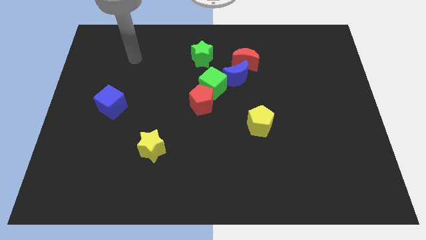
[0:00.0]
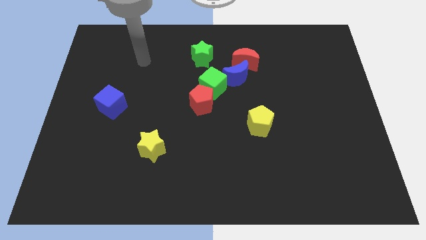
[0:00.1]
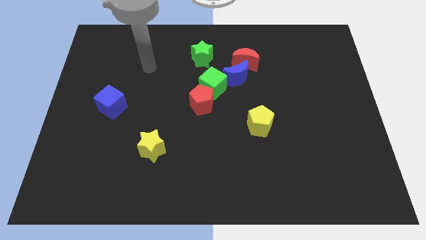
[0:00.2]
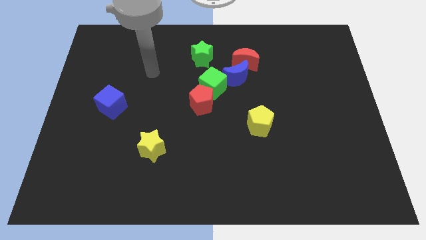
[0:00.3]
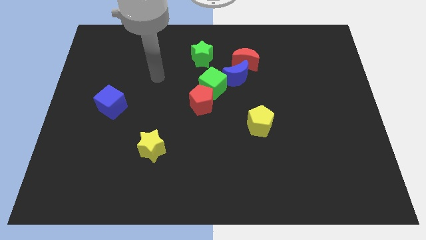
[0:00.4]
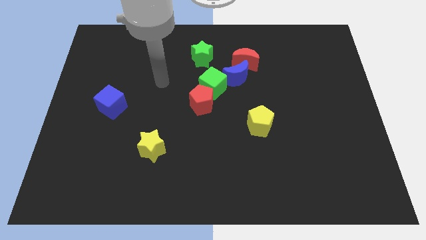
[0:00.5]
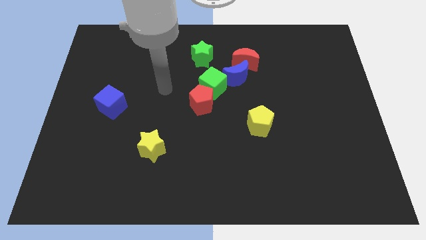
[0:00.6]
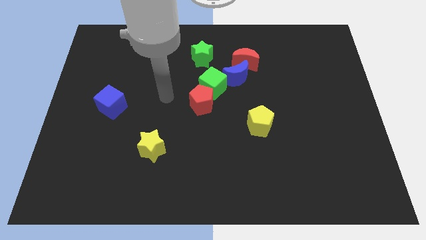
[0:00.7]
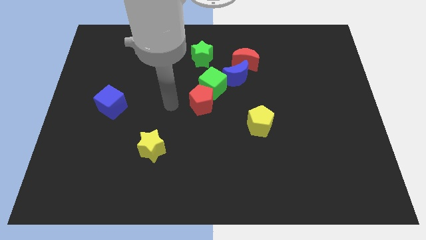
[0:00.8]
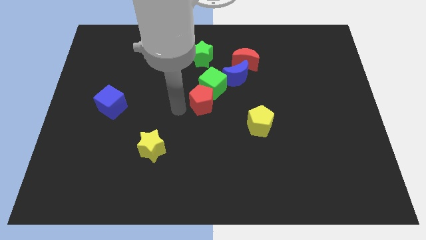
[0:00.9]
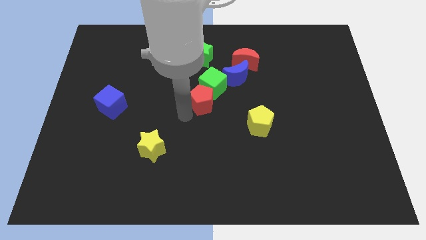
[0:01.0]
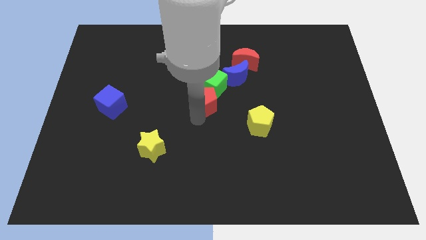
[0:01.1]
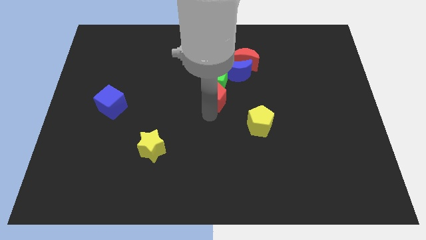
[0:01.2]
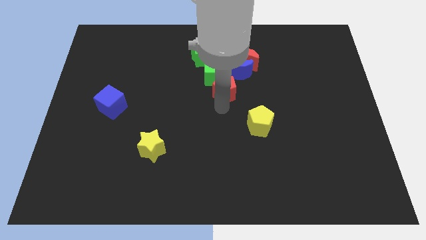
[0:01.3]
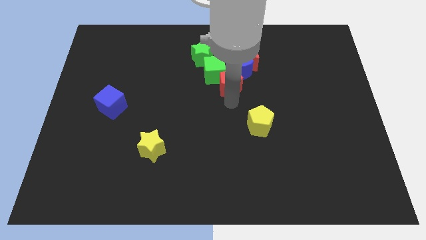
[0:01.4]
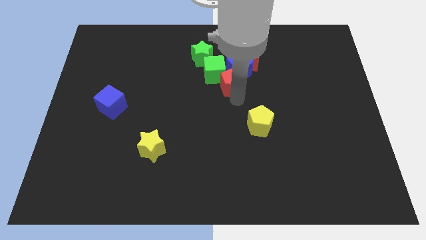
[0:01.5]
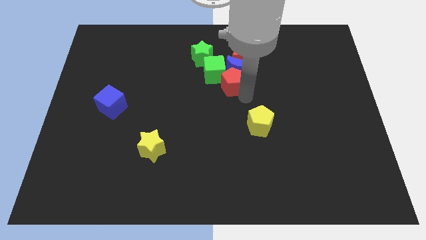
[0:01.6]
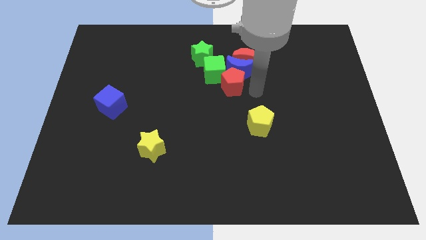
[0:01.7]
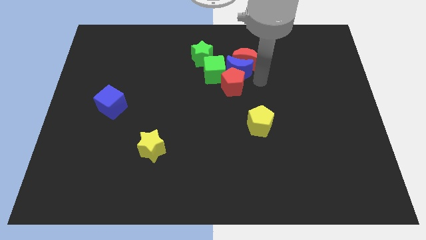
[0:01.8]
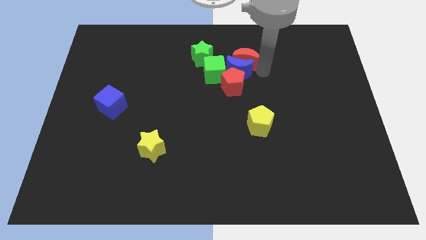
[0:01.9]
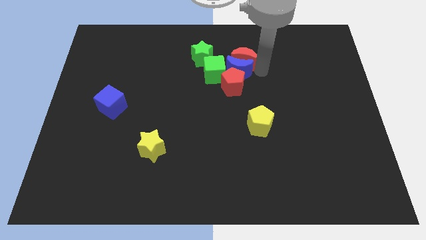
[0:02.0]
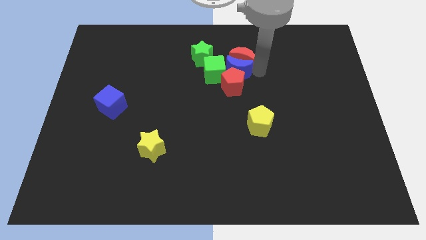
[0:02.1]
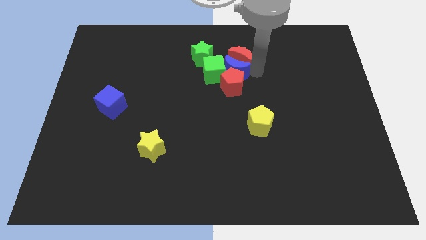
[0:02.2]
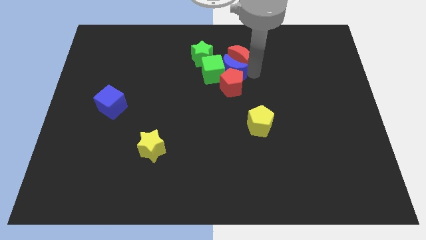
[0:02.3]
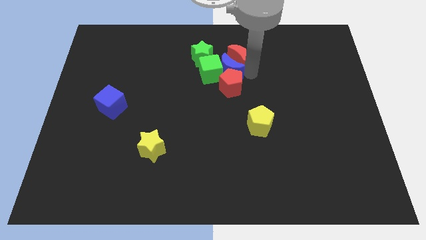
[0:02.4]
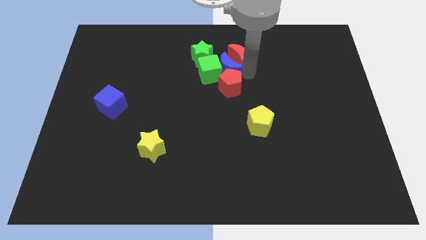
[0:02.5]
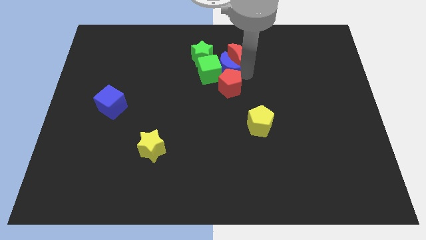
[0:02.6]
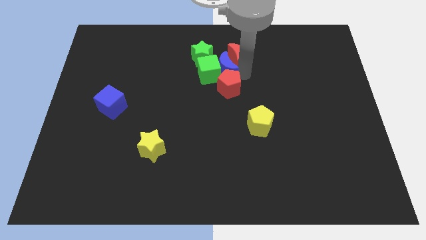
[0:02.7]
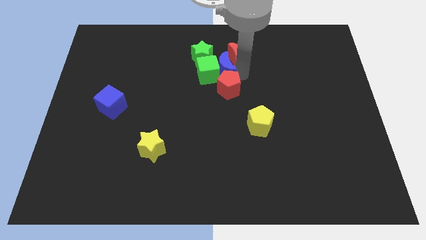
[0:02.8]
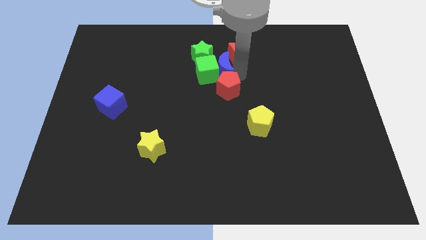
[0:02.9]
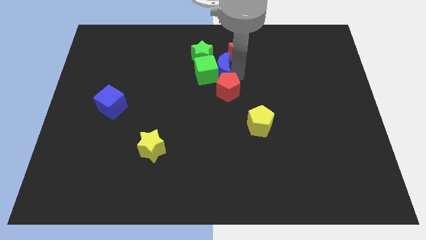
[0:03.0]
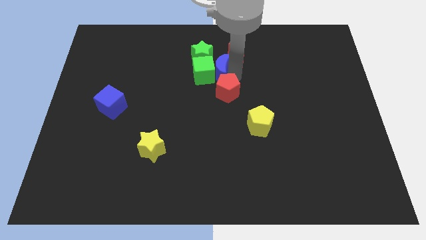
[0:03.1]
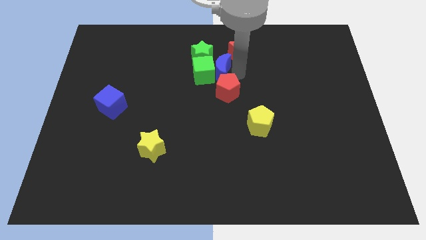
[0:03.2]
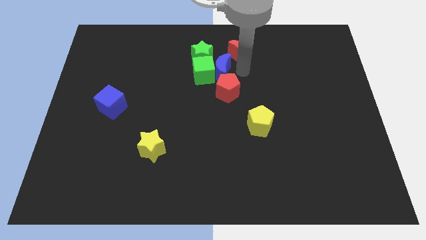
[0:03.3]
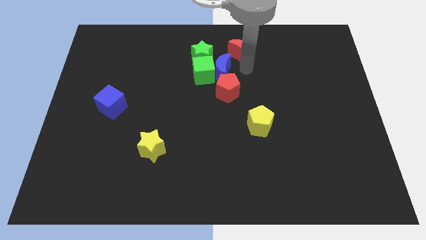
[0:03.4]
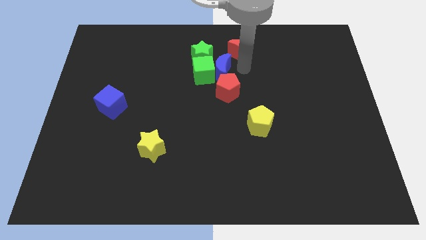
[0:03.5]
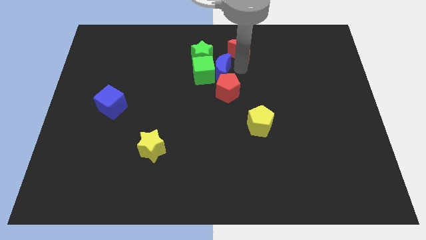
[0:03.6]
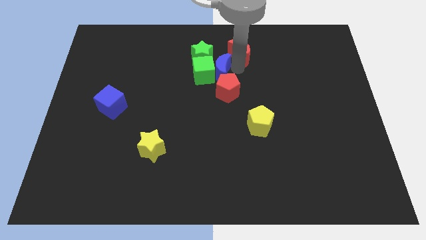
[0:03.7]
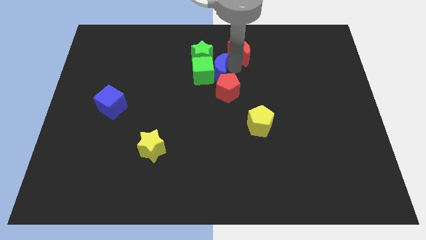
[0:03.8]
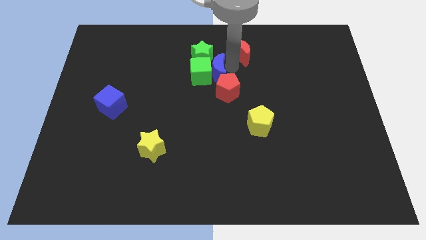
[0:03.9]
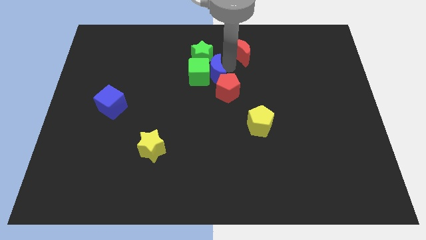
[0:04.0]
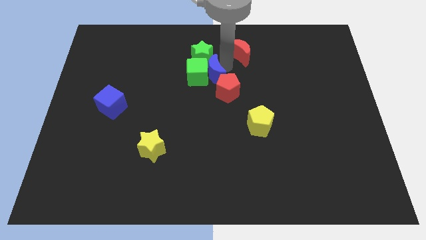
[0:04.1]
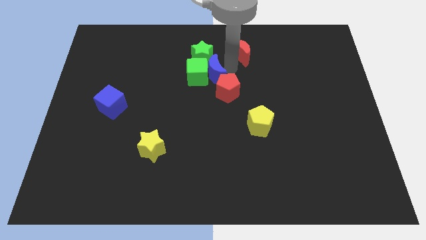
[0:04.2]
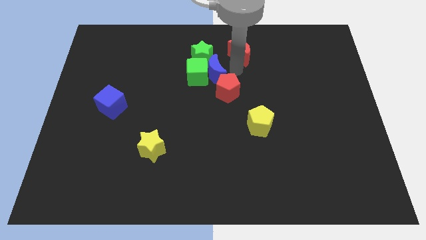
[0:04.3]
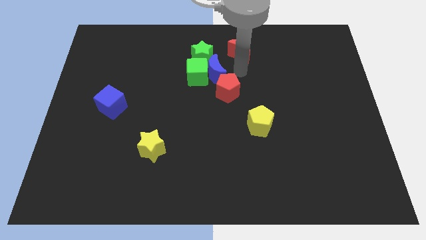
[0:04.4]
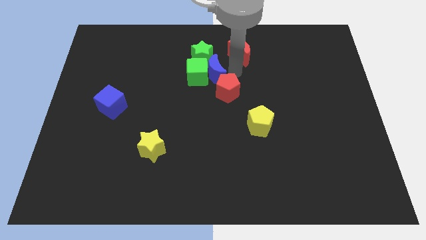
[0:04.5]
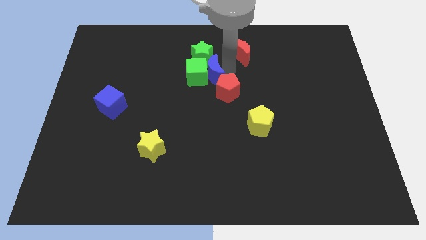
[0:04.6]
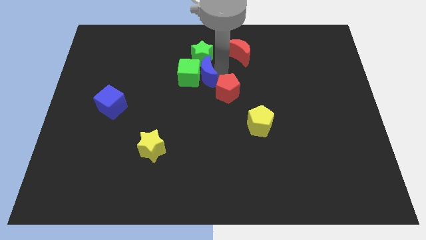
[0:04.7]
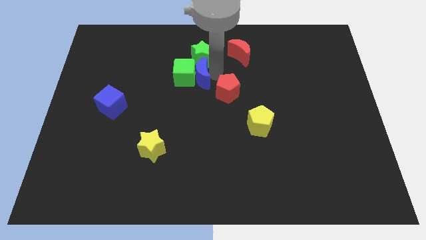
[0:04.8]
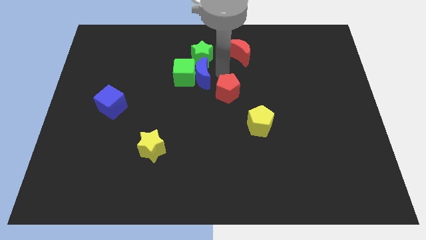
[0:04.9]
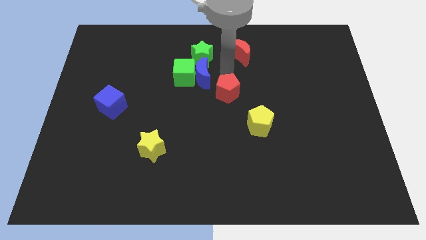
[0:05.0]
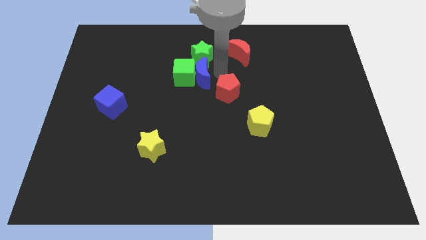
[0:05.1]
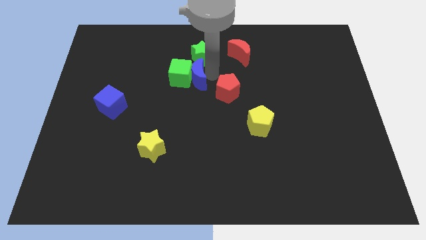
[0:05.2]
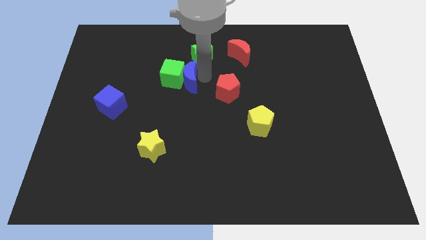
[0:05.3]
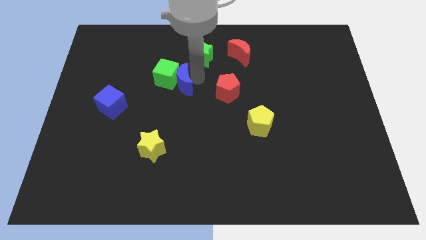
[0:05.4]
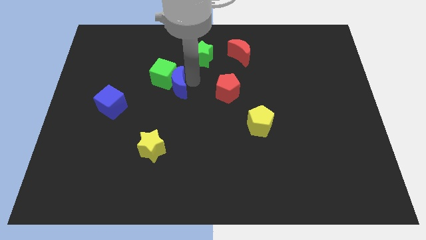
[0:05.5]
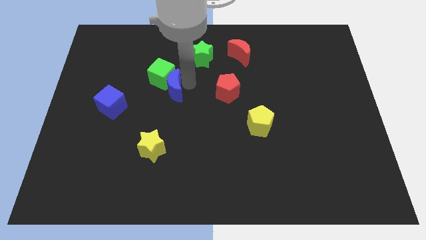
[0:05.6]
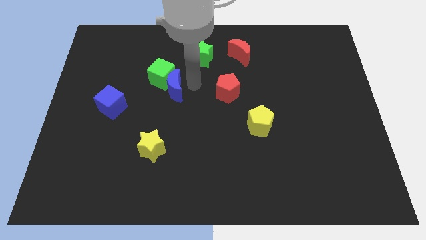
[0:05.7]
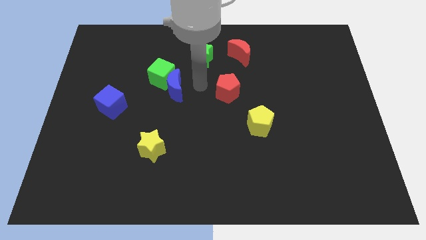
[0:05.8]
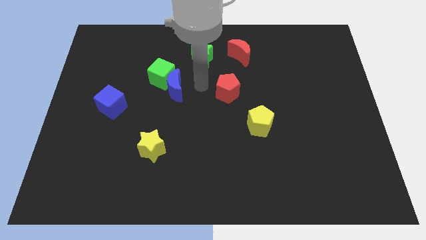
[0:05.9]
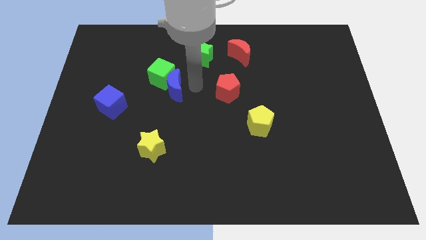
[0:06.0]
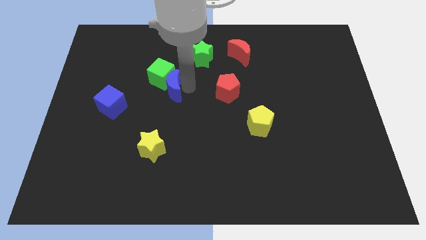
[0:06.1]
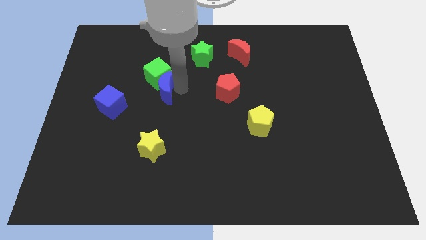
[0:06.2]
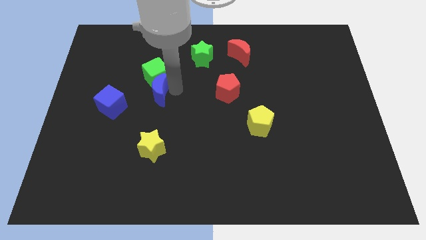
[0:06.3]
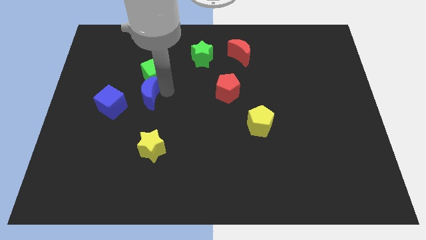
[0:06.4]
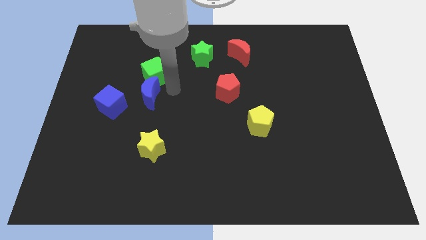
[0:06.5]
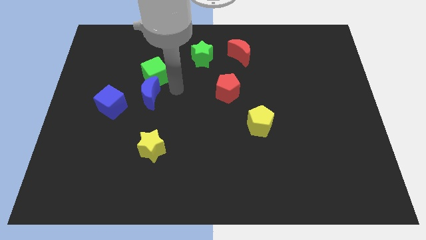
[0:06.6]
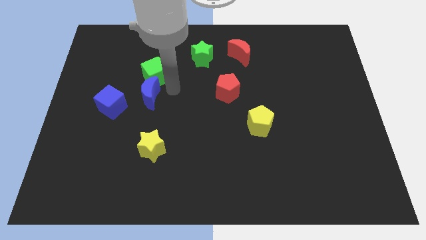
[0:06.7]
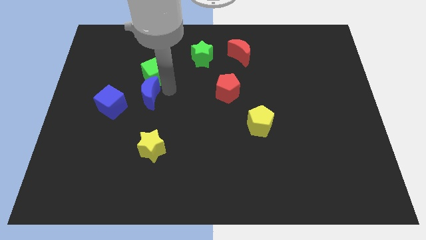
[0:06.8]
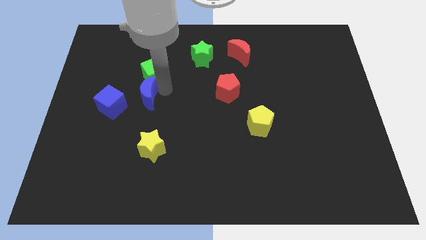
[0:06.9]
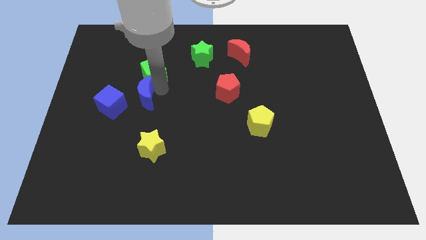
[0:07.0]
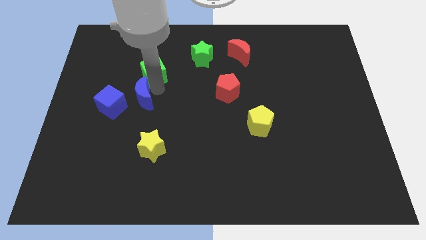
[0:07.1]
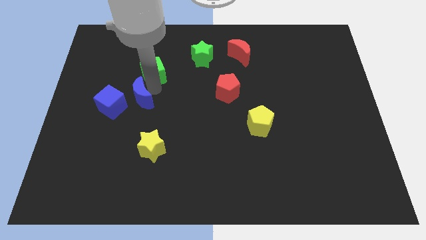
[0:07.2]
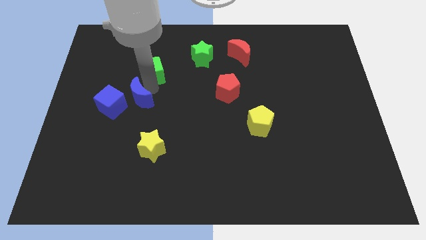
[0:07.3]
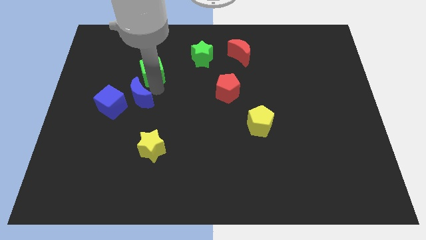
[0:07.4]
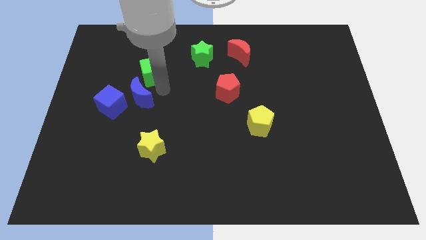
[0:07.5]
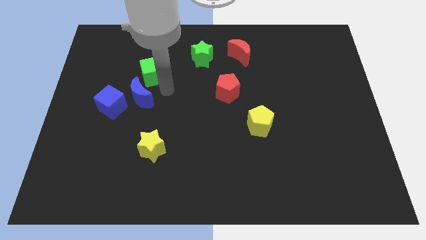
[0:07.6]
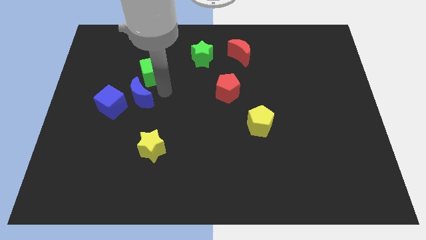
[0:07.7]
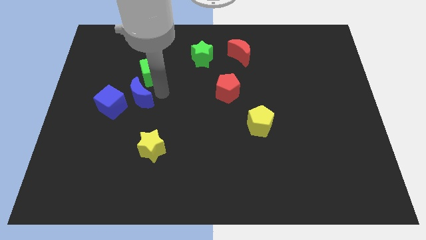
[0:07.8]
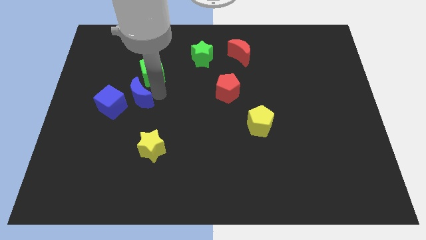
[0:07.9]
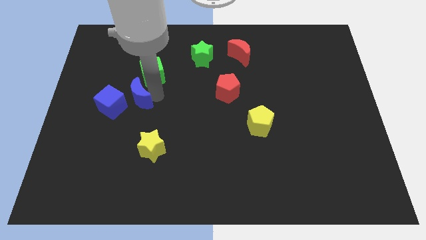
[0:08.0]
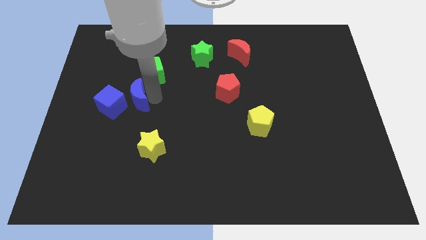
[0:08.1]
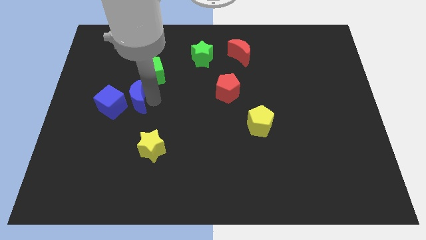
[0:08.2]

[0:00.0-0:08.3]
slide the blue moon next to the blue cube

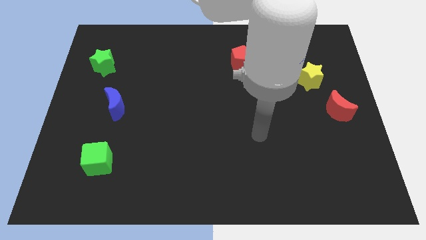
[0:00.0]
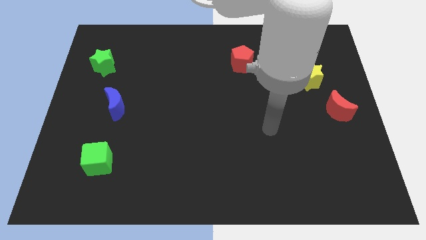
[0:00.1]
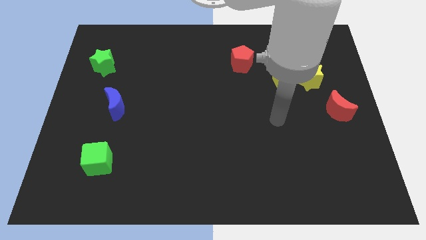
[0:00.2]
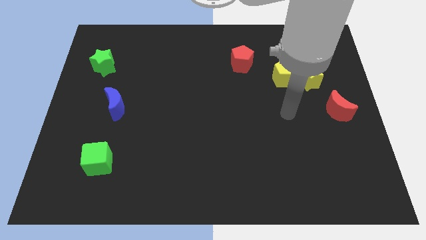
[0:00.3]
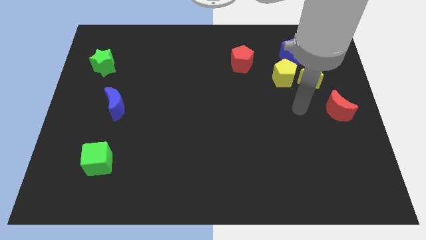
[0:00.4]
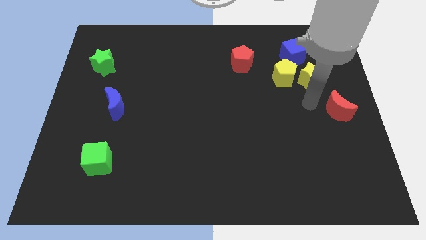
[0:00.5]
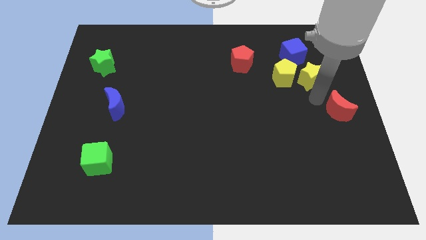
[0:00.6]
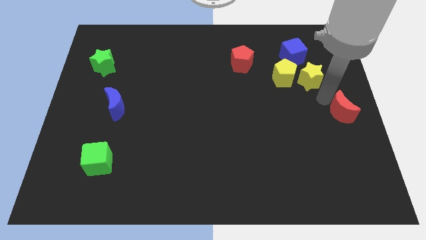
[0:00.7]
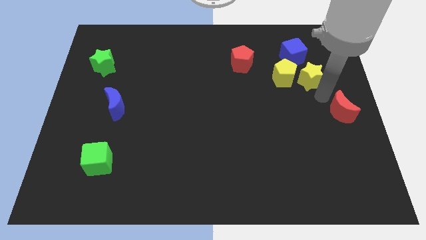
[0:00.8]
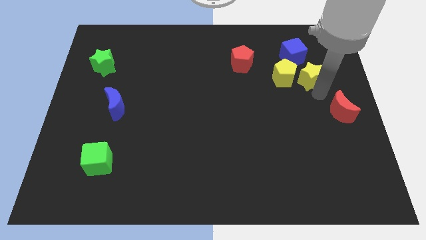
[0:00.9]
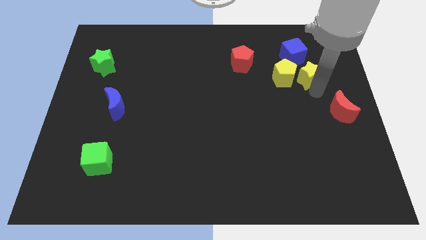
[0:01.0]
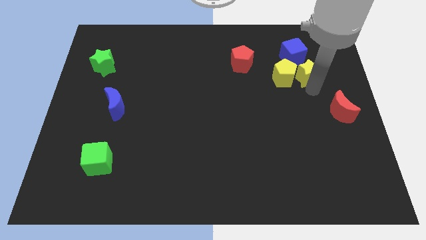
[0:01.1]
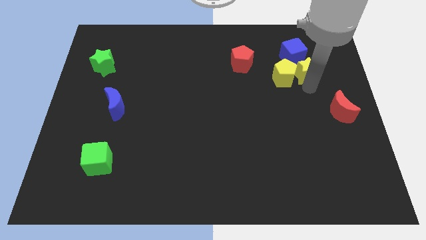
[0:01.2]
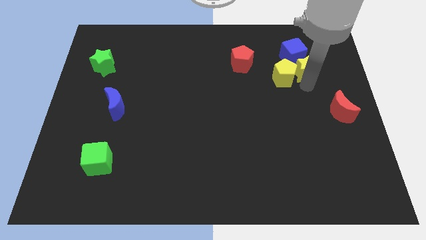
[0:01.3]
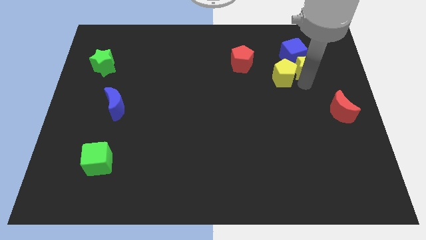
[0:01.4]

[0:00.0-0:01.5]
move the yellow star towards the blue cube
